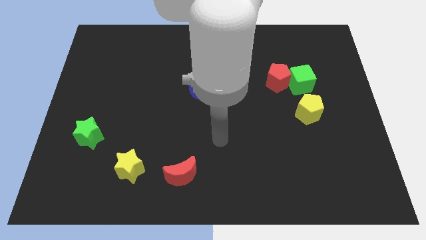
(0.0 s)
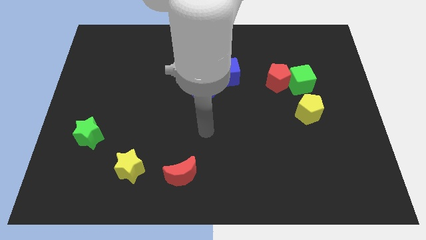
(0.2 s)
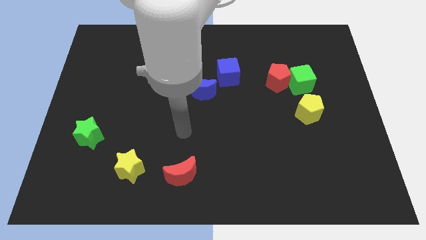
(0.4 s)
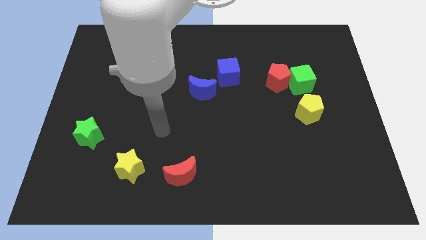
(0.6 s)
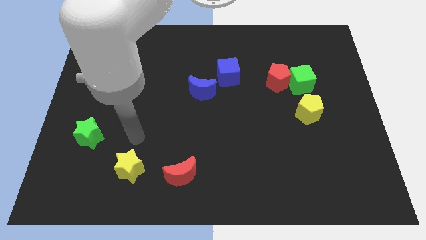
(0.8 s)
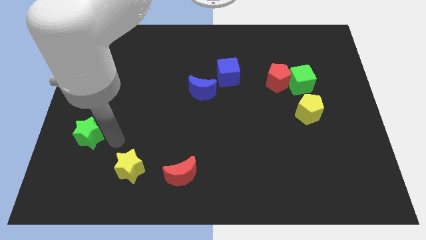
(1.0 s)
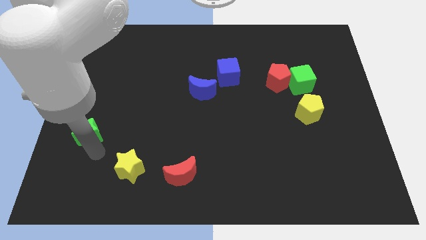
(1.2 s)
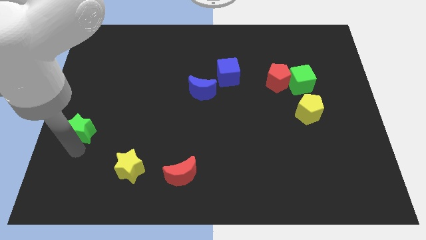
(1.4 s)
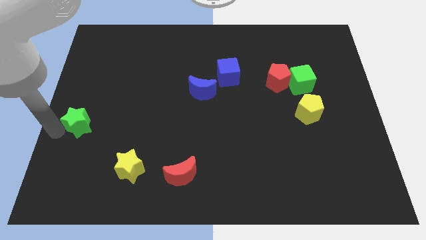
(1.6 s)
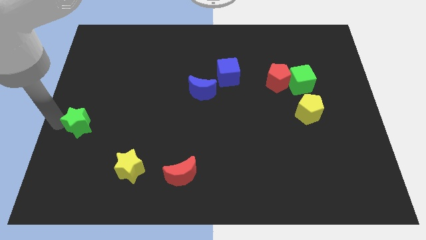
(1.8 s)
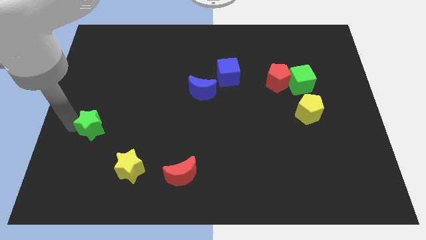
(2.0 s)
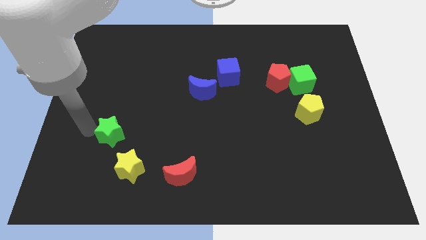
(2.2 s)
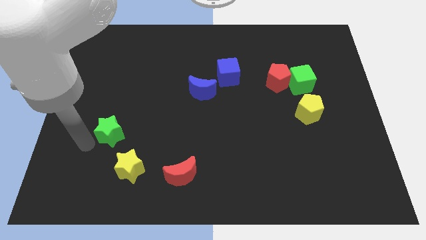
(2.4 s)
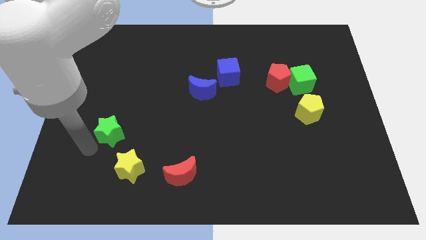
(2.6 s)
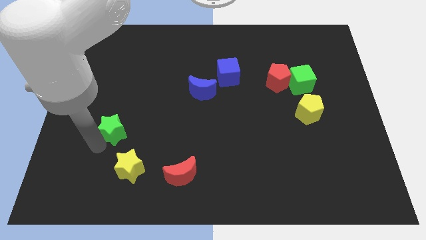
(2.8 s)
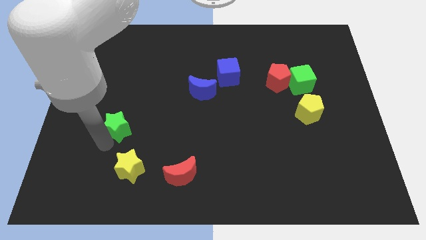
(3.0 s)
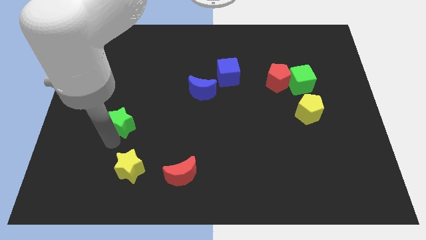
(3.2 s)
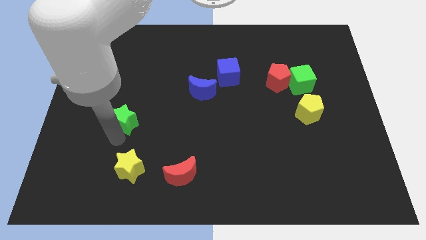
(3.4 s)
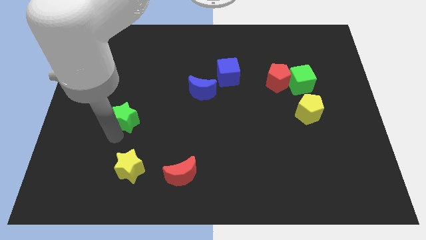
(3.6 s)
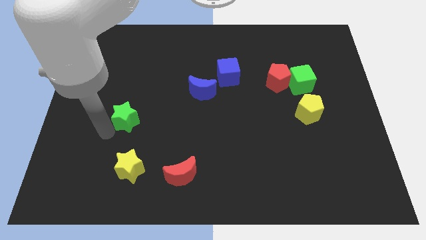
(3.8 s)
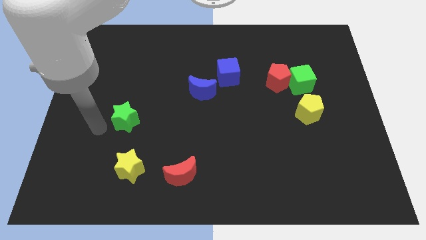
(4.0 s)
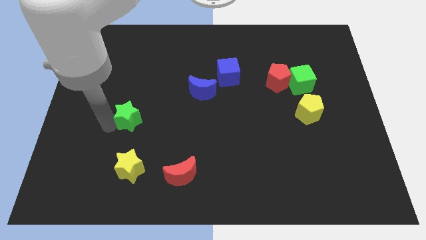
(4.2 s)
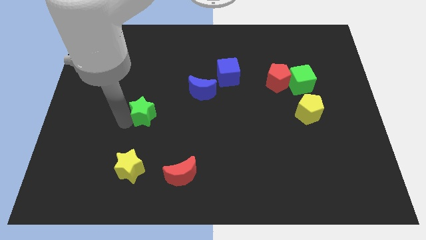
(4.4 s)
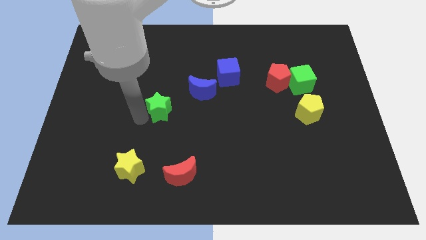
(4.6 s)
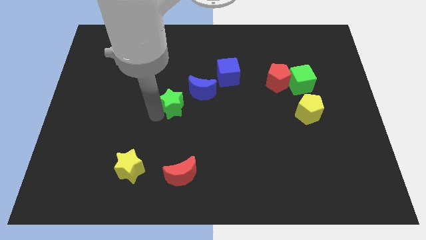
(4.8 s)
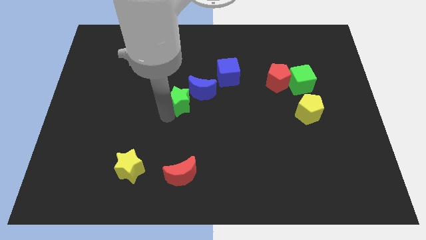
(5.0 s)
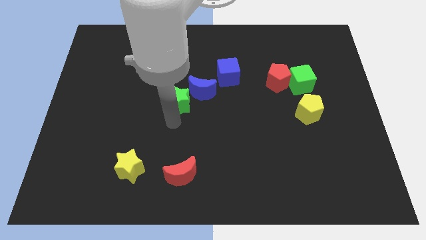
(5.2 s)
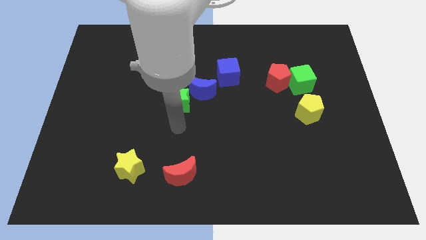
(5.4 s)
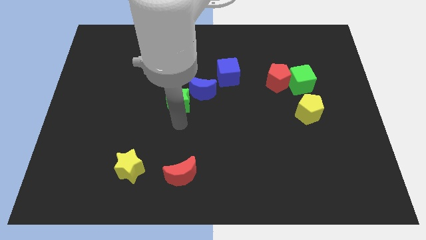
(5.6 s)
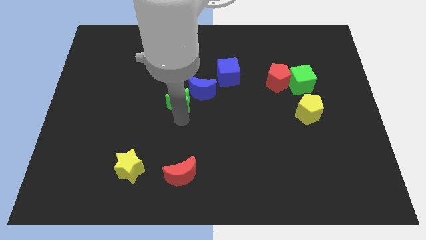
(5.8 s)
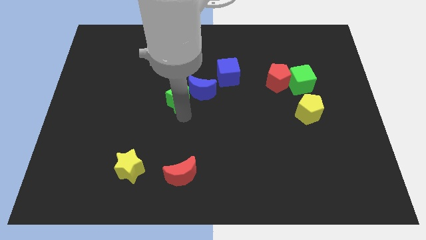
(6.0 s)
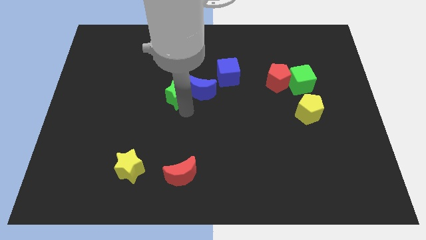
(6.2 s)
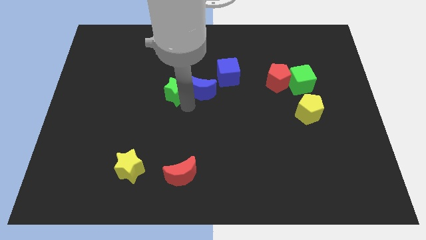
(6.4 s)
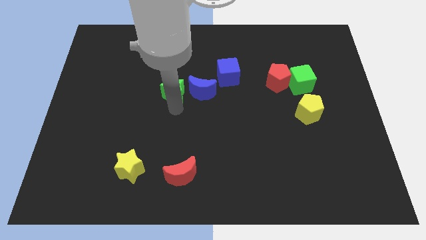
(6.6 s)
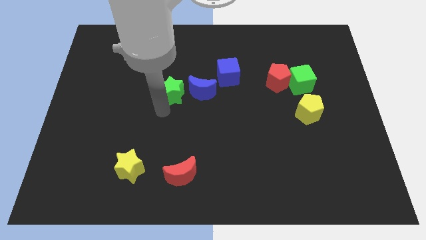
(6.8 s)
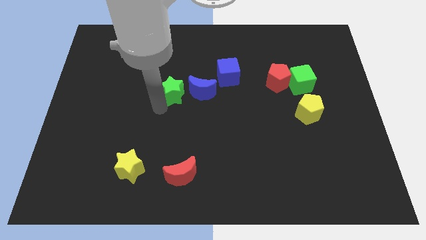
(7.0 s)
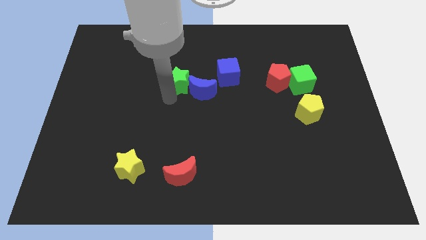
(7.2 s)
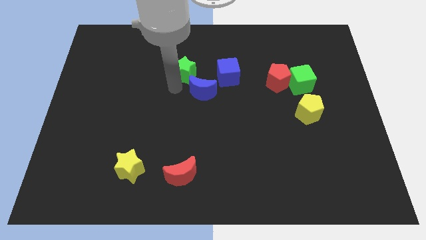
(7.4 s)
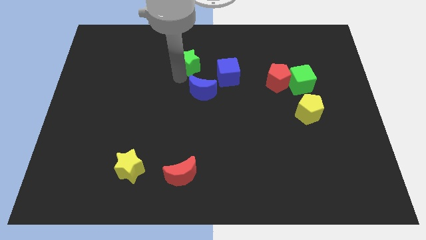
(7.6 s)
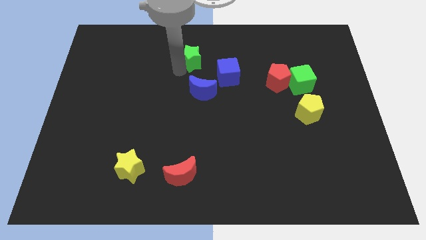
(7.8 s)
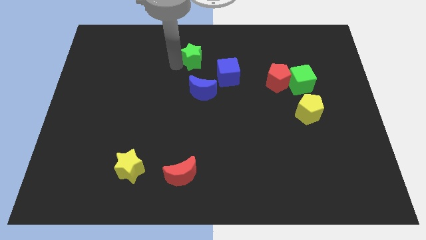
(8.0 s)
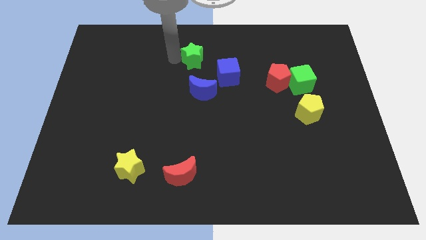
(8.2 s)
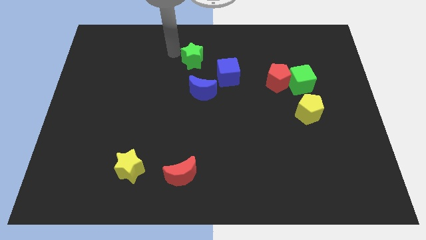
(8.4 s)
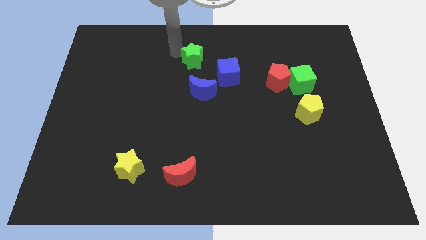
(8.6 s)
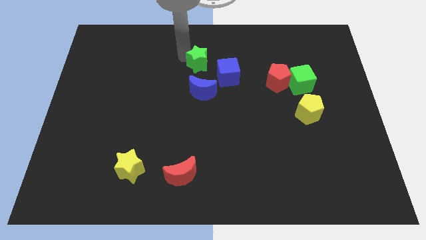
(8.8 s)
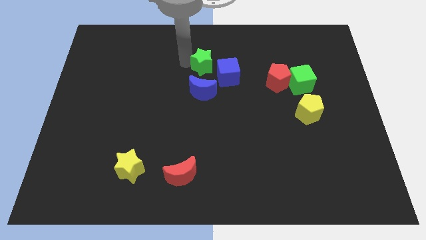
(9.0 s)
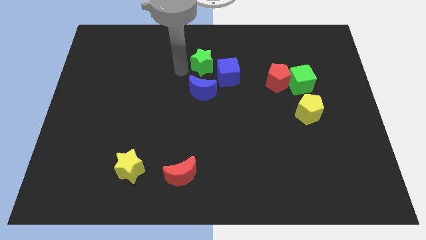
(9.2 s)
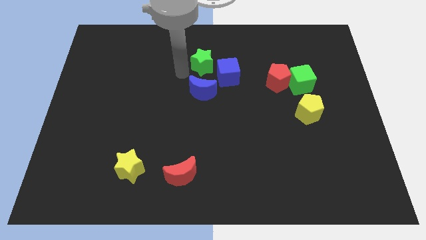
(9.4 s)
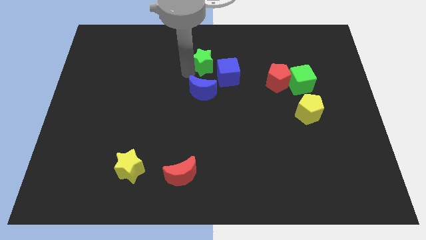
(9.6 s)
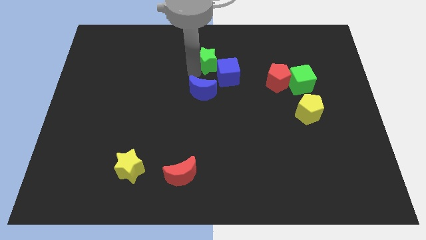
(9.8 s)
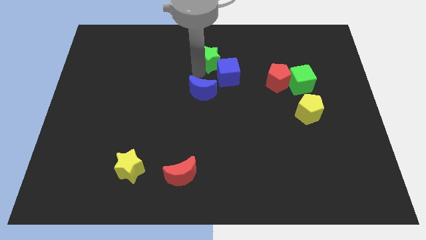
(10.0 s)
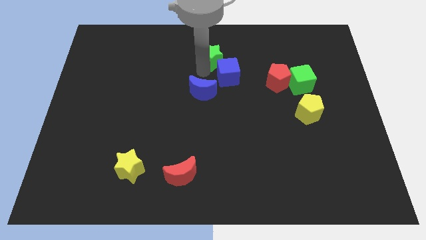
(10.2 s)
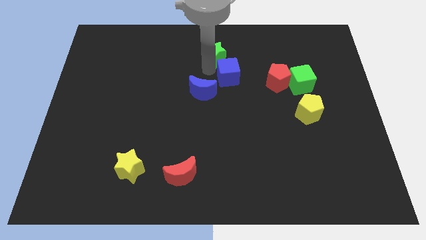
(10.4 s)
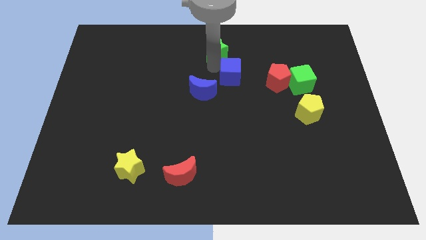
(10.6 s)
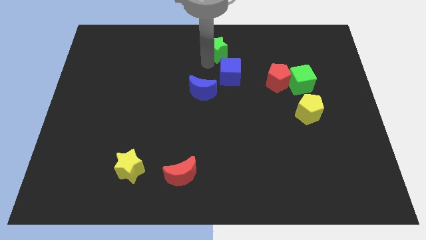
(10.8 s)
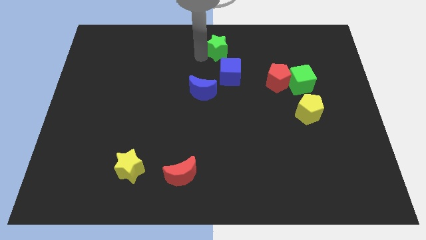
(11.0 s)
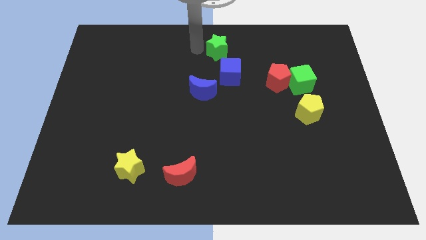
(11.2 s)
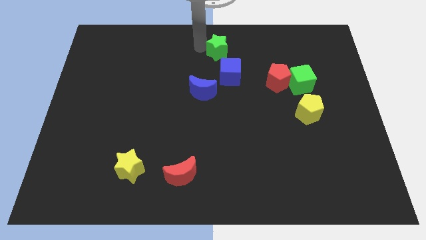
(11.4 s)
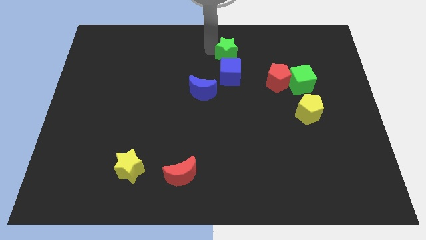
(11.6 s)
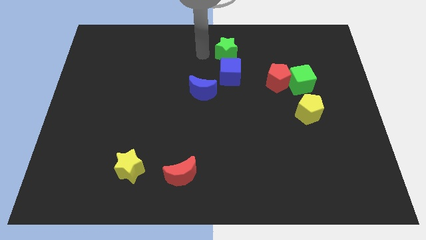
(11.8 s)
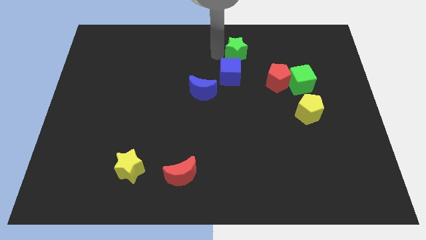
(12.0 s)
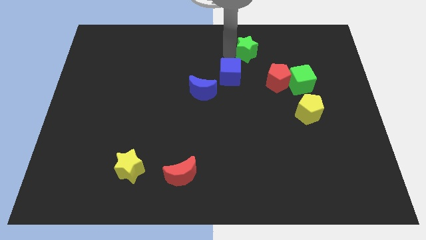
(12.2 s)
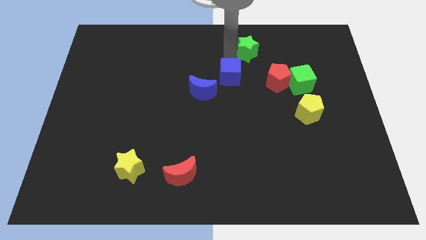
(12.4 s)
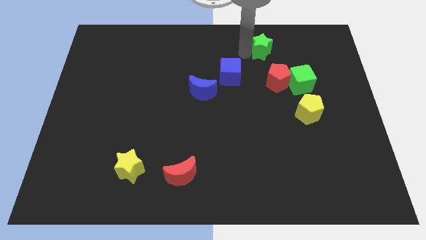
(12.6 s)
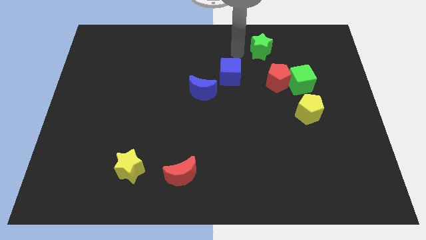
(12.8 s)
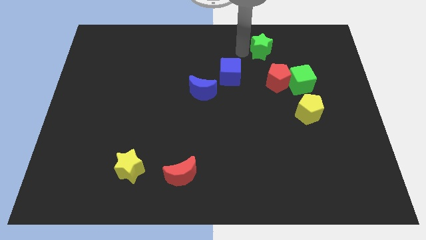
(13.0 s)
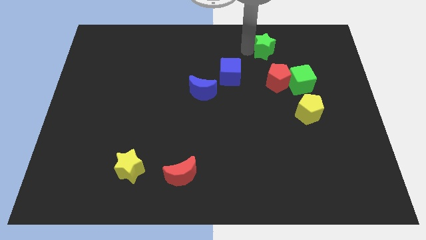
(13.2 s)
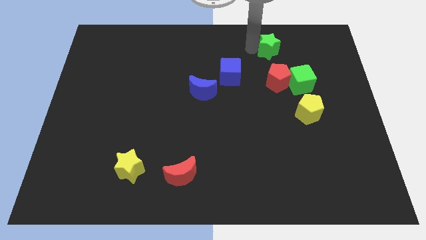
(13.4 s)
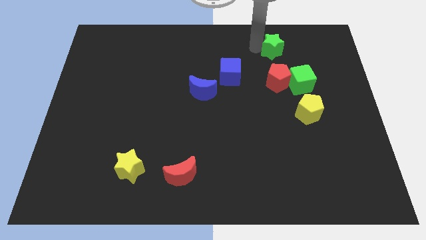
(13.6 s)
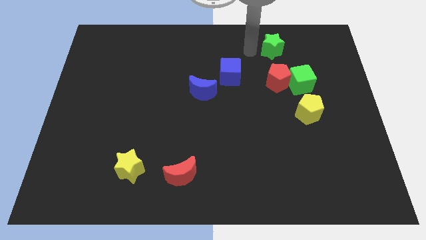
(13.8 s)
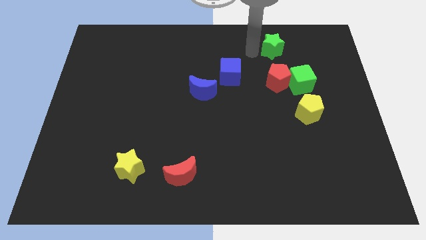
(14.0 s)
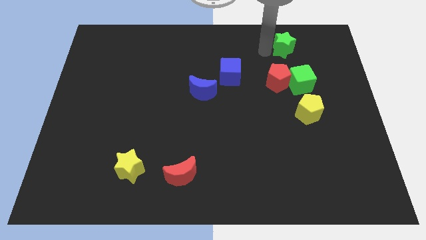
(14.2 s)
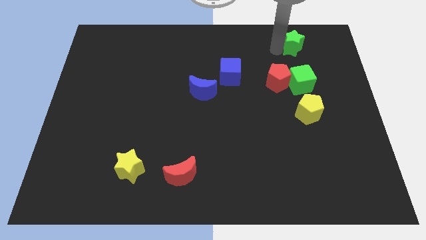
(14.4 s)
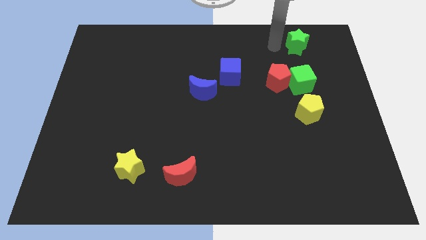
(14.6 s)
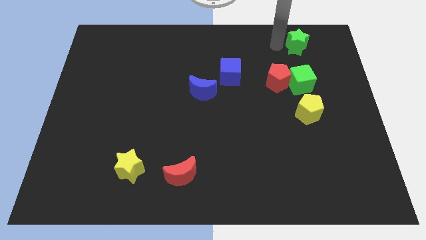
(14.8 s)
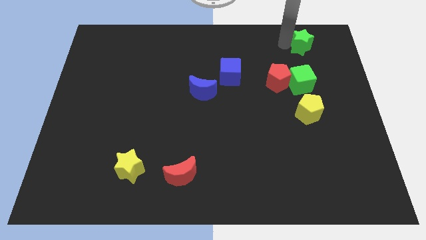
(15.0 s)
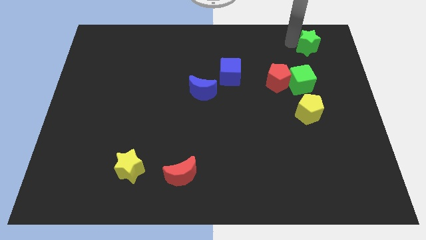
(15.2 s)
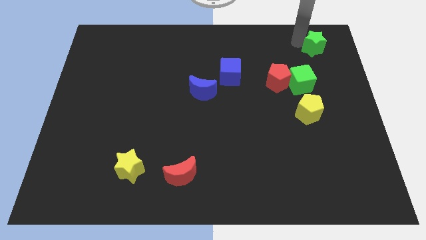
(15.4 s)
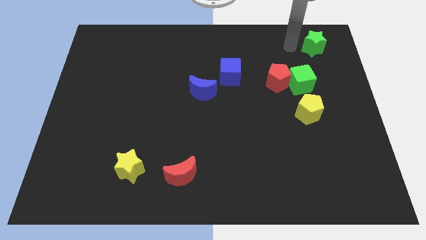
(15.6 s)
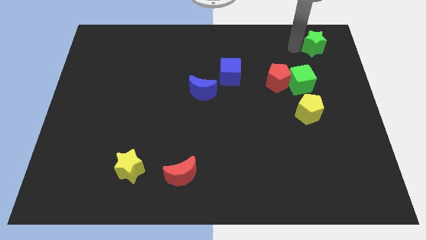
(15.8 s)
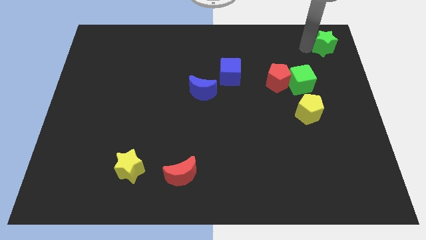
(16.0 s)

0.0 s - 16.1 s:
put the green star to the top right corner
